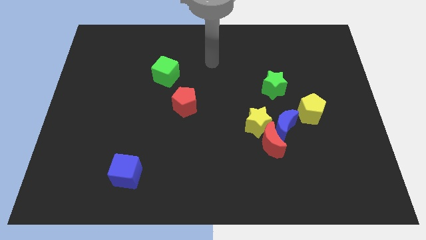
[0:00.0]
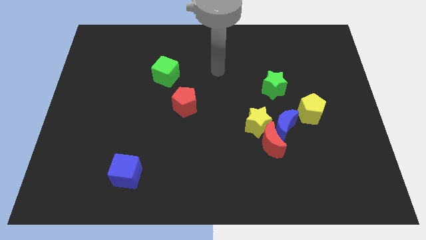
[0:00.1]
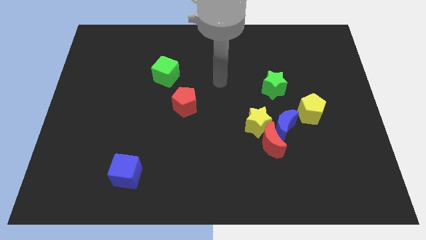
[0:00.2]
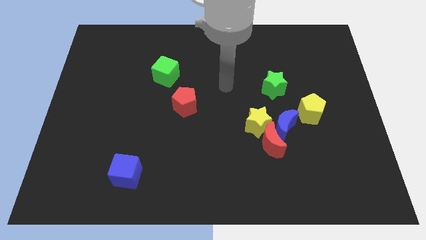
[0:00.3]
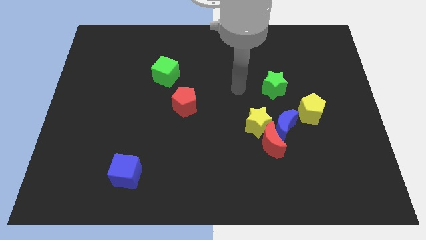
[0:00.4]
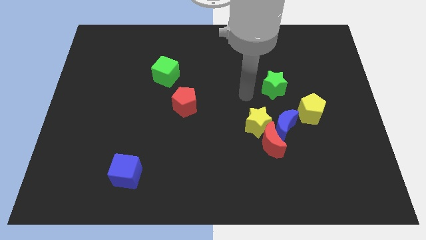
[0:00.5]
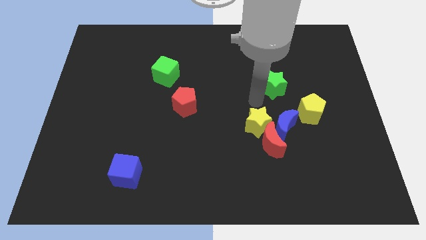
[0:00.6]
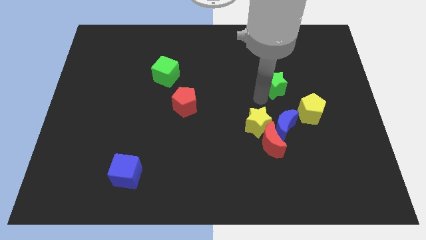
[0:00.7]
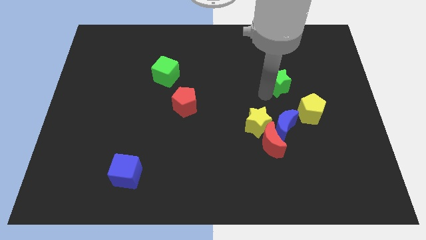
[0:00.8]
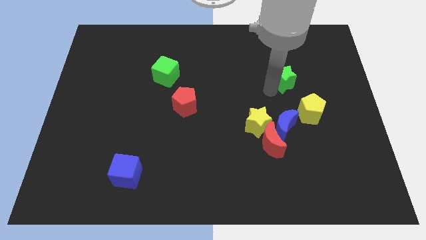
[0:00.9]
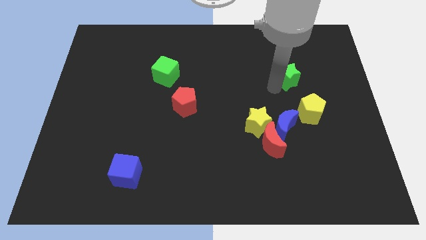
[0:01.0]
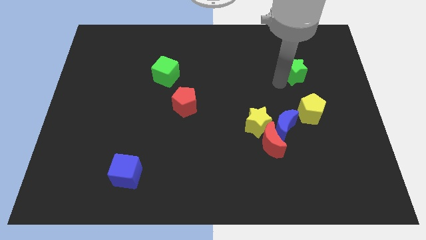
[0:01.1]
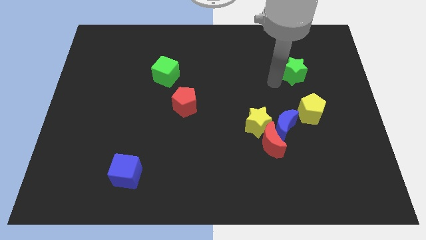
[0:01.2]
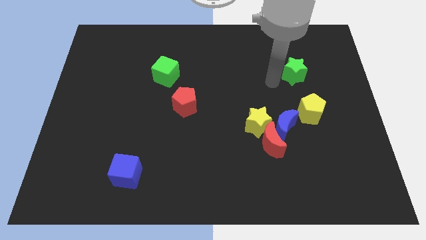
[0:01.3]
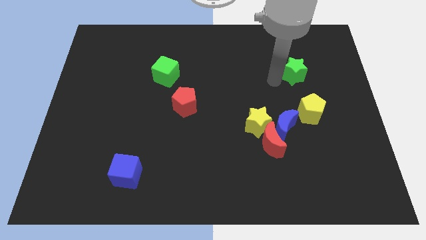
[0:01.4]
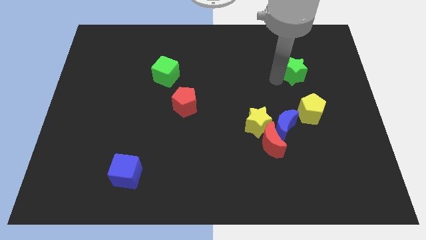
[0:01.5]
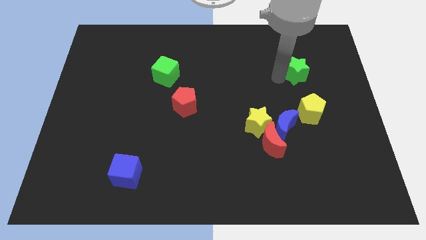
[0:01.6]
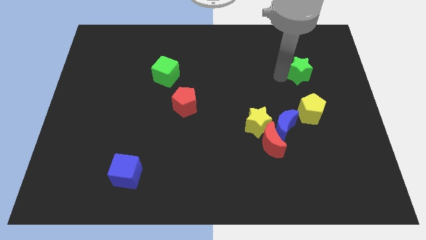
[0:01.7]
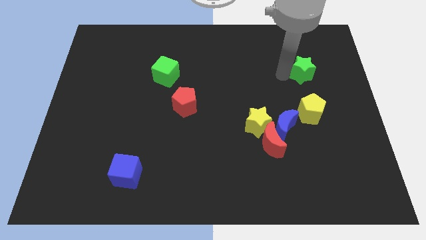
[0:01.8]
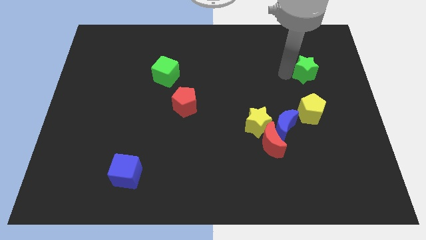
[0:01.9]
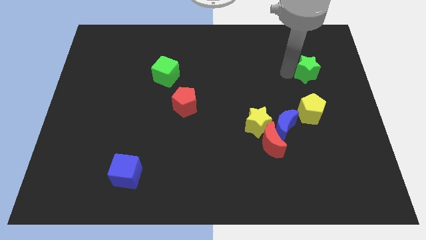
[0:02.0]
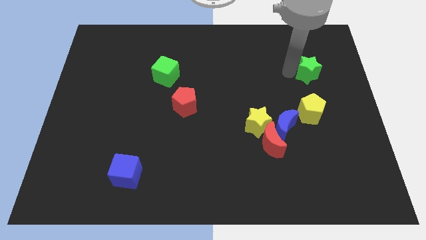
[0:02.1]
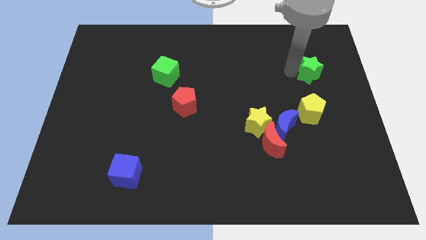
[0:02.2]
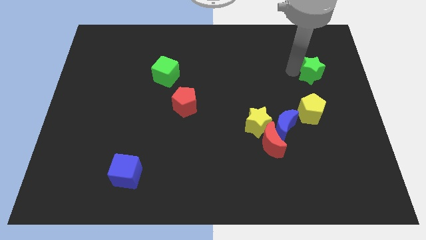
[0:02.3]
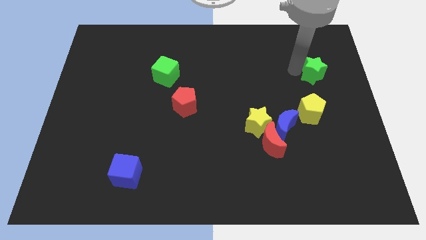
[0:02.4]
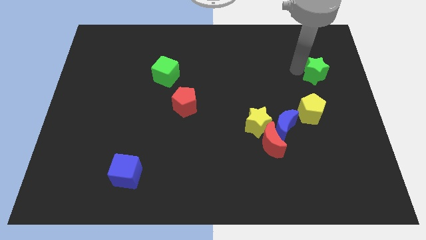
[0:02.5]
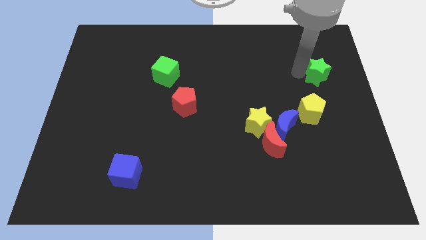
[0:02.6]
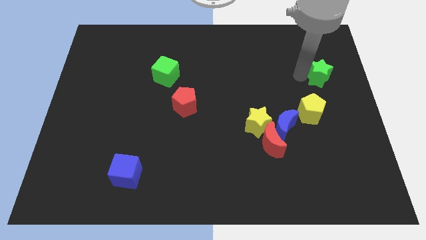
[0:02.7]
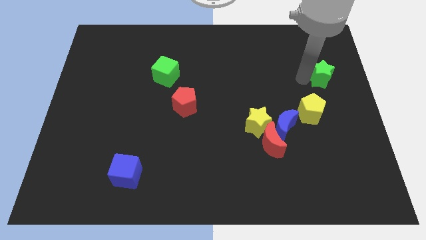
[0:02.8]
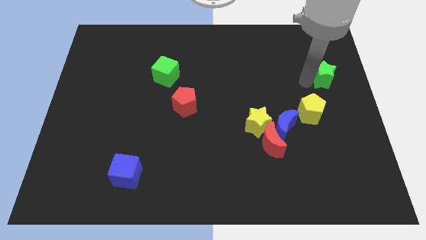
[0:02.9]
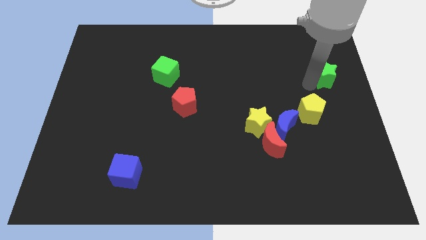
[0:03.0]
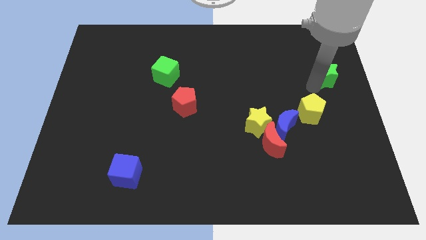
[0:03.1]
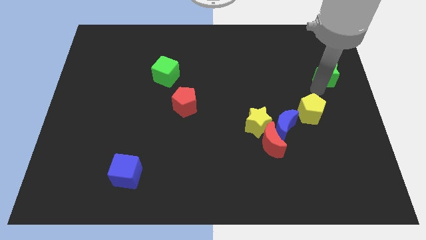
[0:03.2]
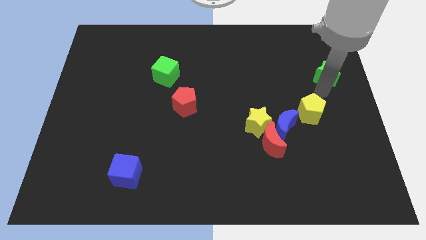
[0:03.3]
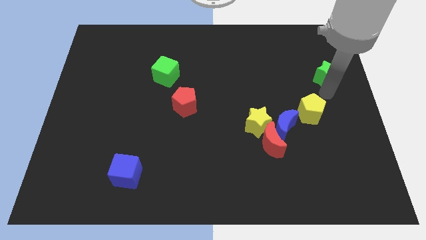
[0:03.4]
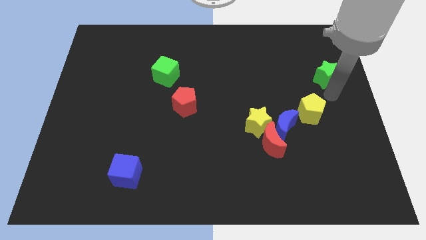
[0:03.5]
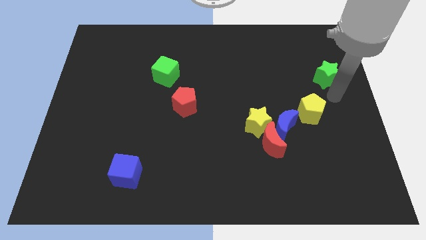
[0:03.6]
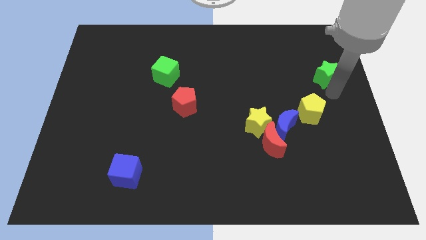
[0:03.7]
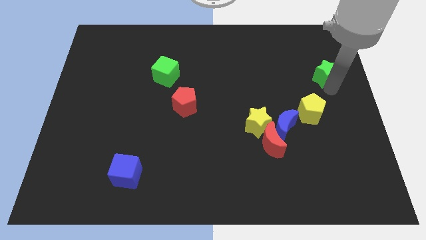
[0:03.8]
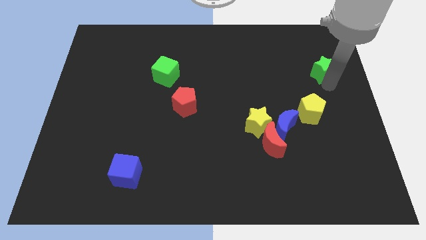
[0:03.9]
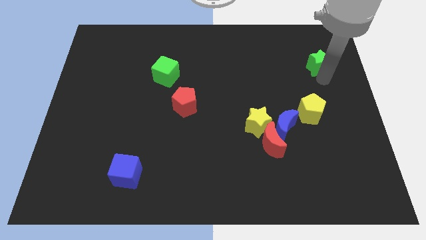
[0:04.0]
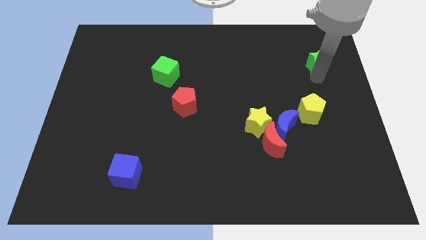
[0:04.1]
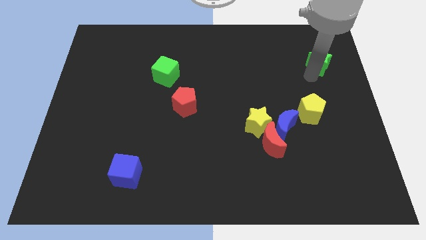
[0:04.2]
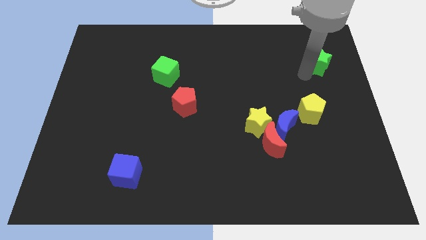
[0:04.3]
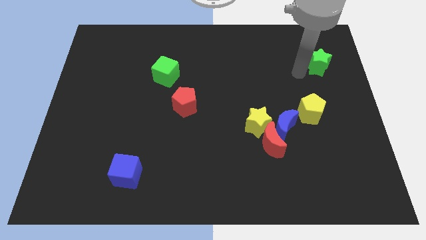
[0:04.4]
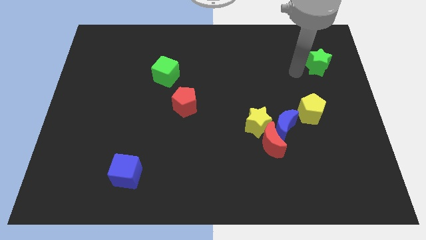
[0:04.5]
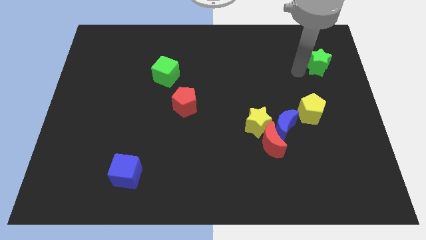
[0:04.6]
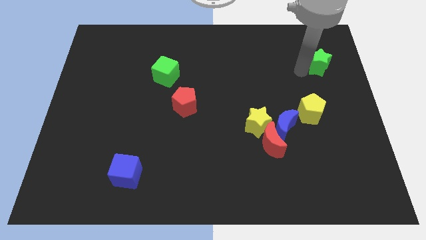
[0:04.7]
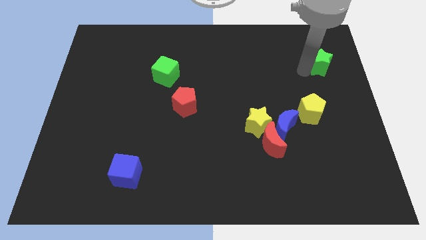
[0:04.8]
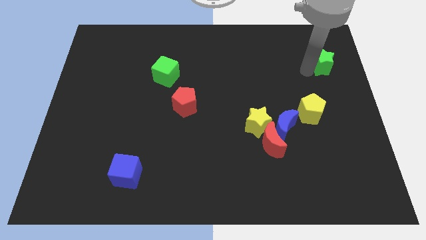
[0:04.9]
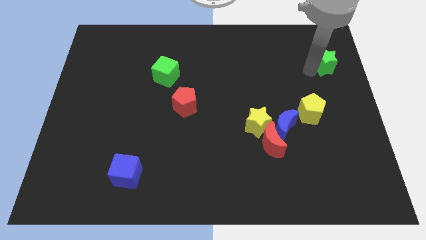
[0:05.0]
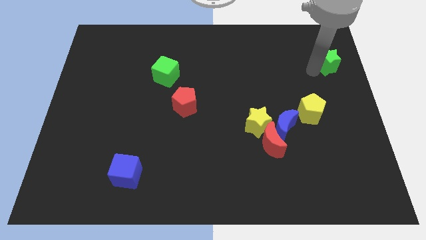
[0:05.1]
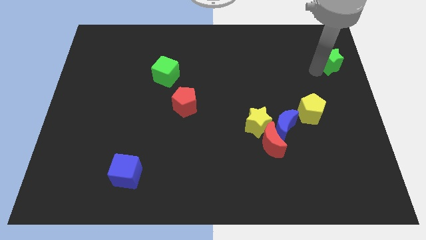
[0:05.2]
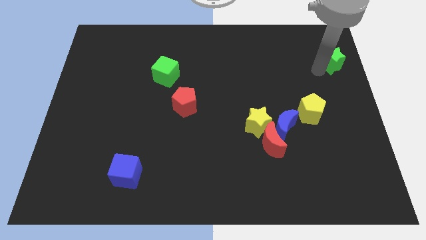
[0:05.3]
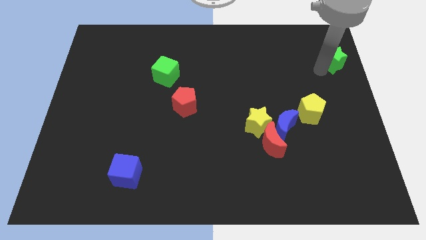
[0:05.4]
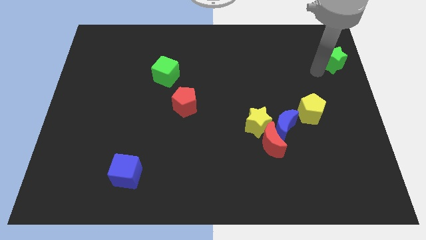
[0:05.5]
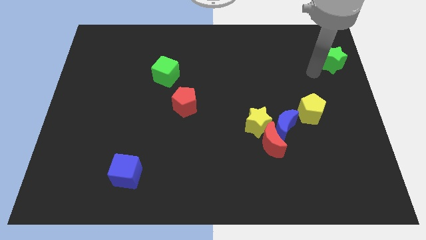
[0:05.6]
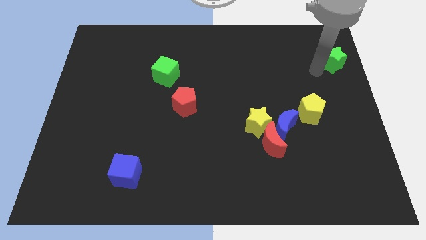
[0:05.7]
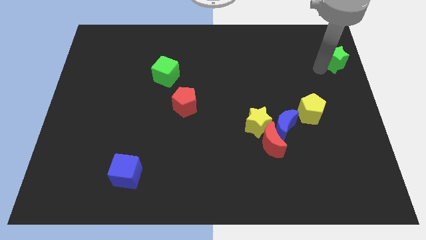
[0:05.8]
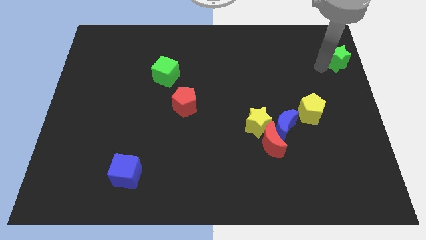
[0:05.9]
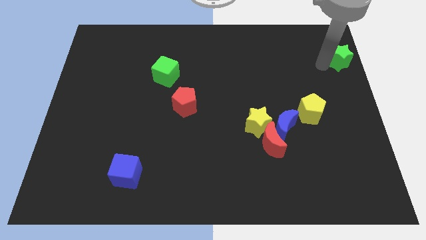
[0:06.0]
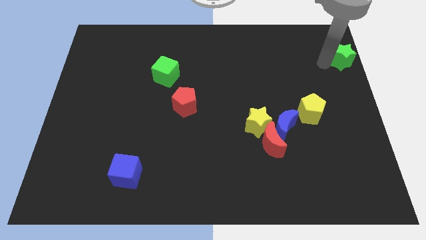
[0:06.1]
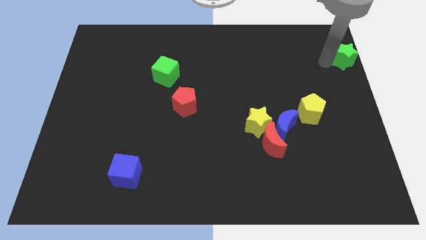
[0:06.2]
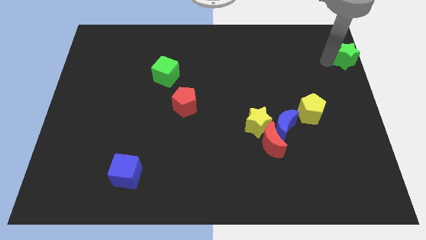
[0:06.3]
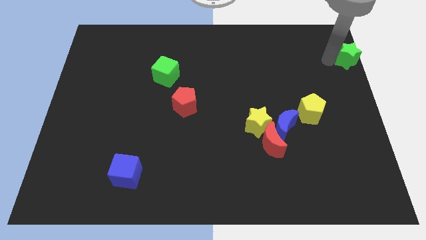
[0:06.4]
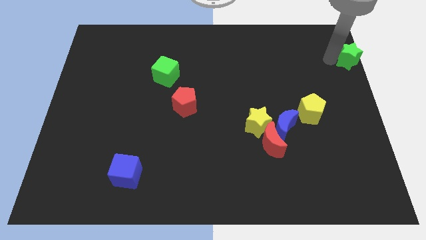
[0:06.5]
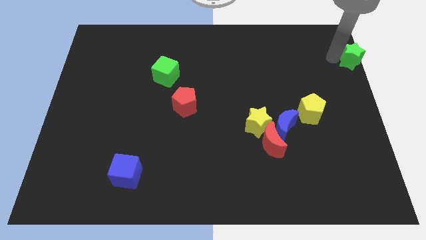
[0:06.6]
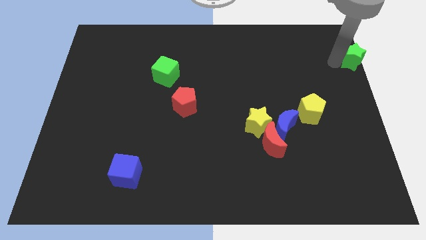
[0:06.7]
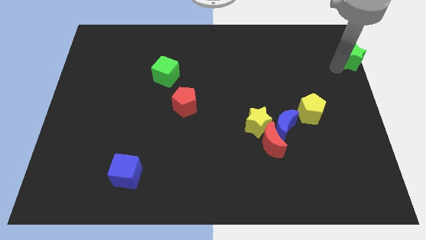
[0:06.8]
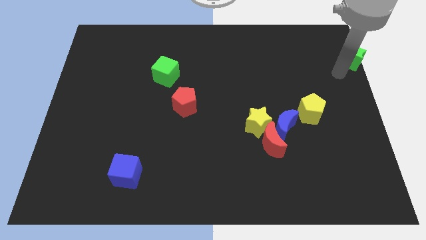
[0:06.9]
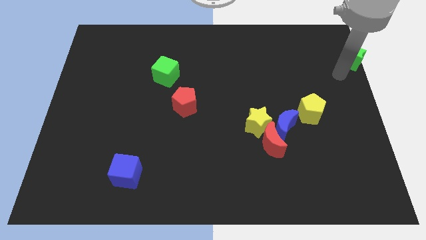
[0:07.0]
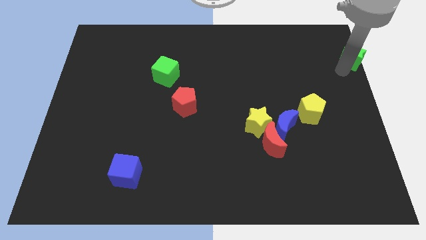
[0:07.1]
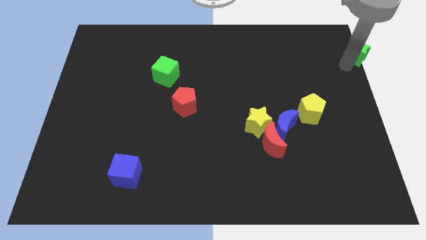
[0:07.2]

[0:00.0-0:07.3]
put the green star to the top right corner
